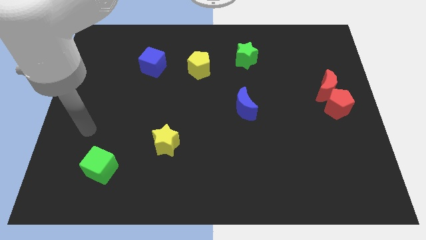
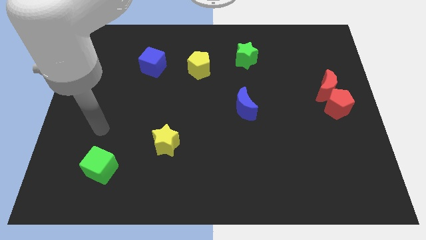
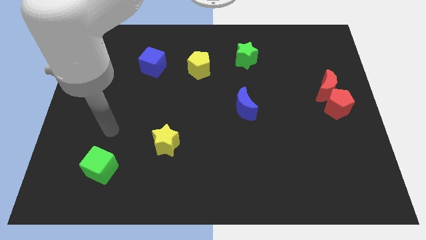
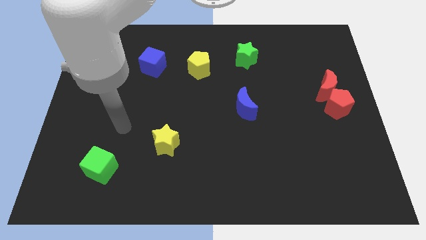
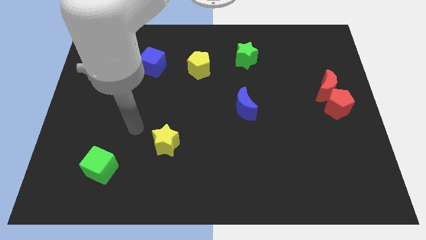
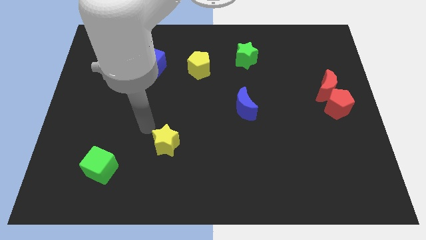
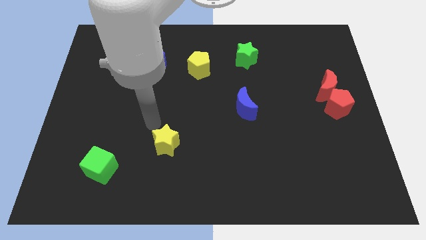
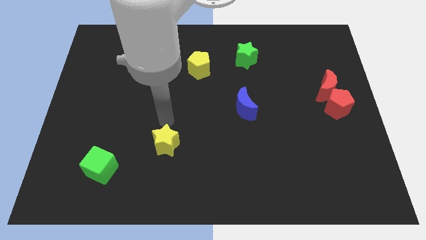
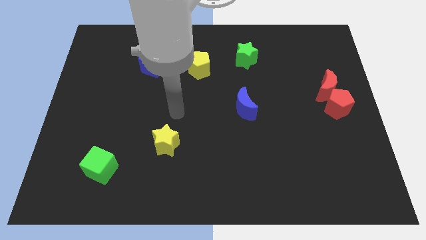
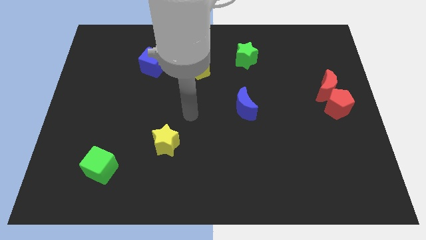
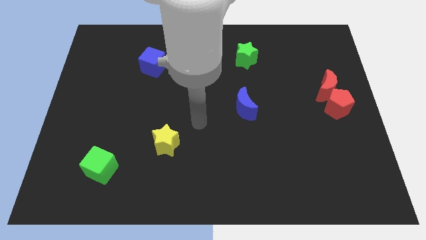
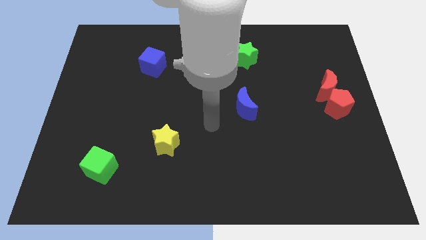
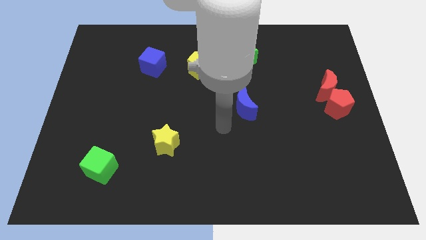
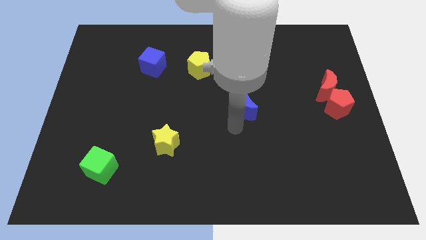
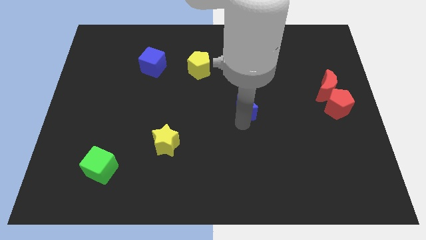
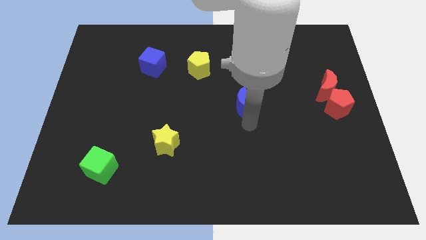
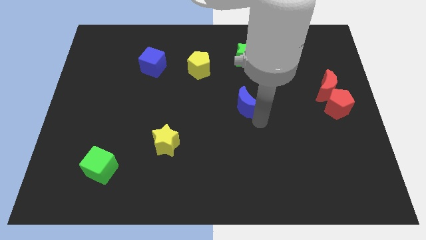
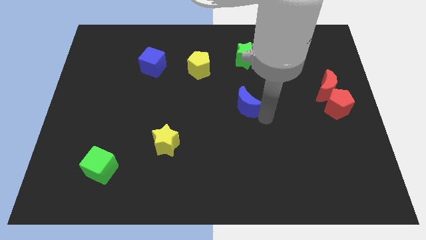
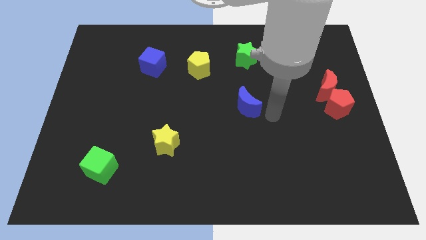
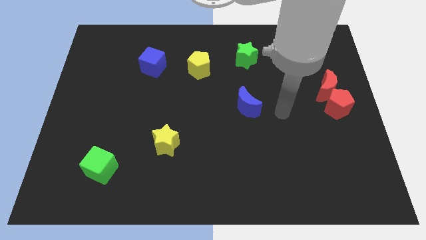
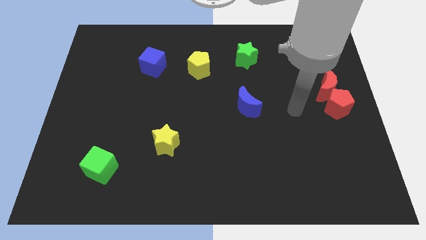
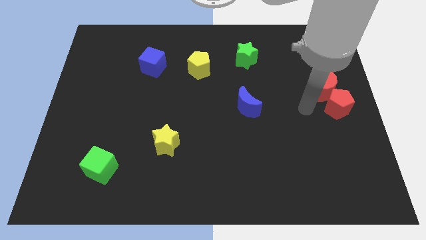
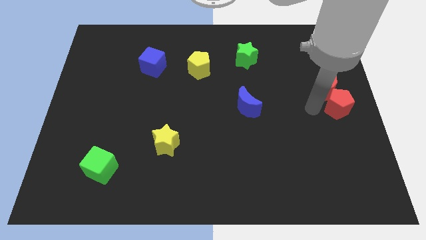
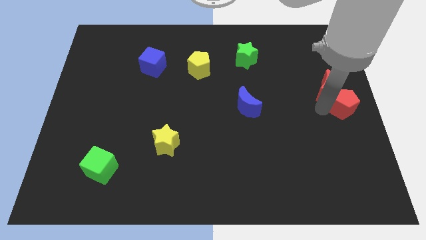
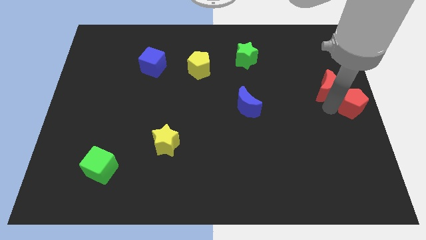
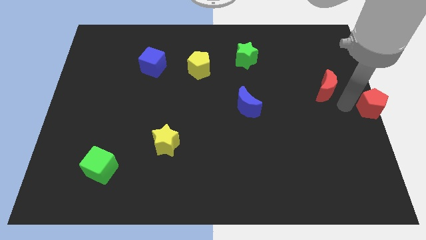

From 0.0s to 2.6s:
separate the red moon from the red pentagon

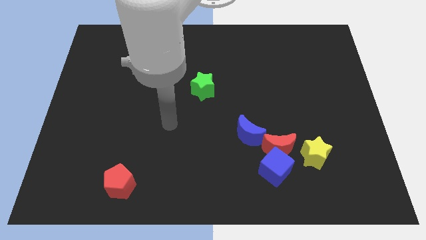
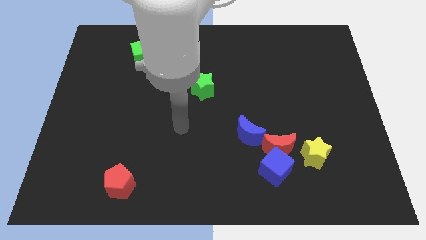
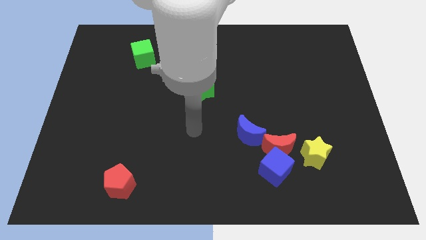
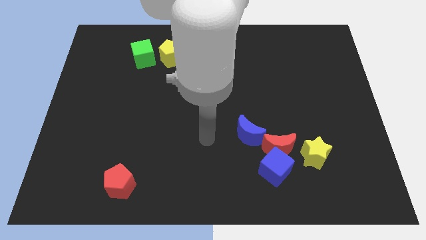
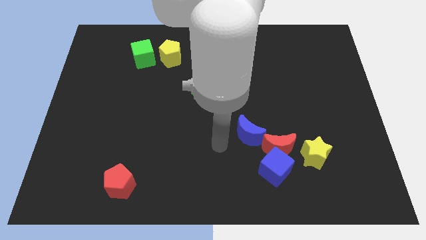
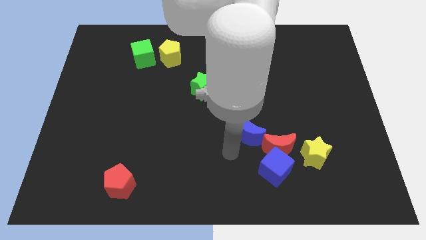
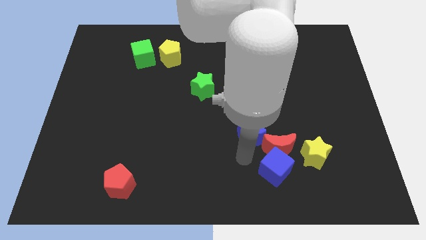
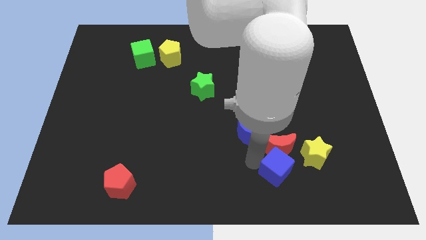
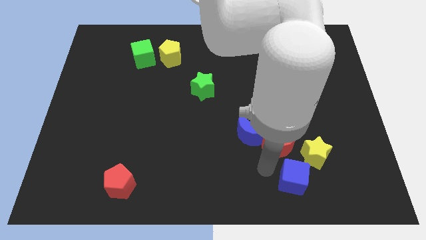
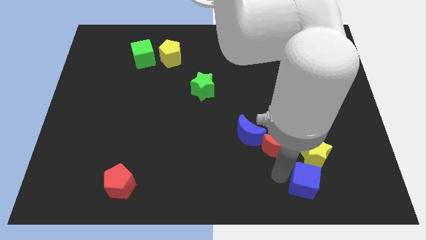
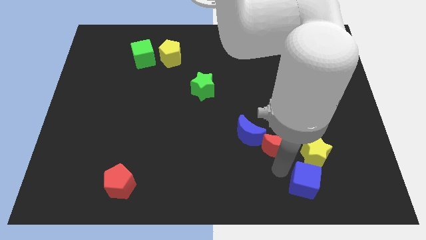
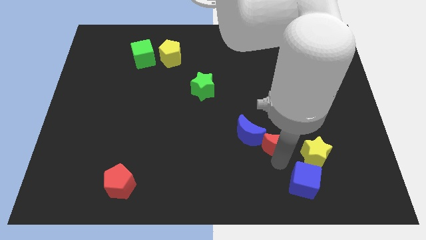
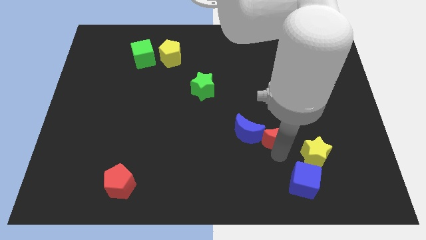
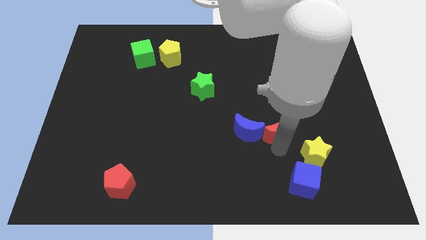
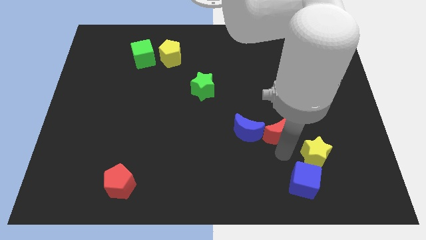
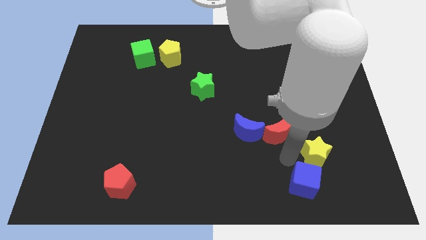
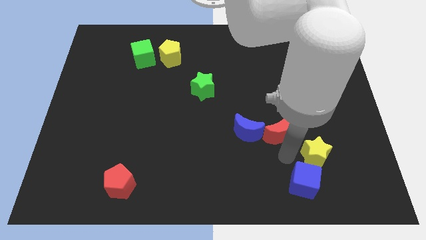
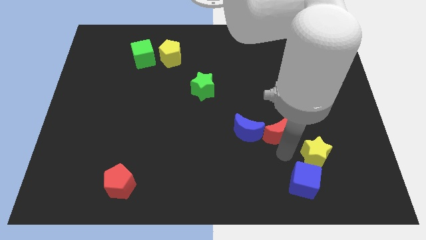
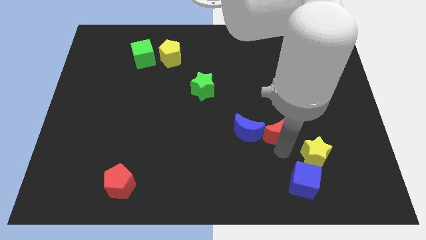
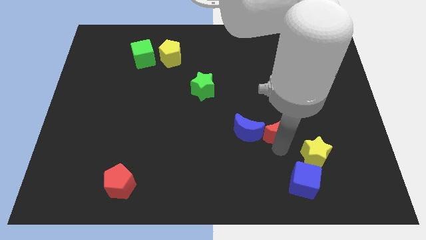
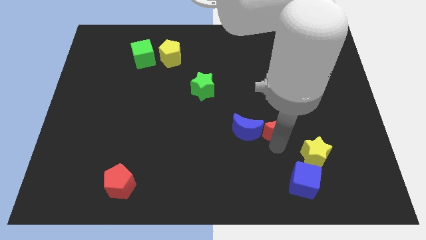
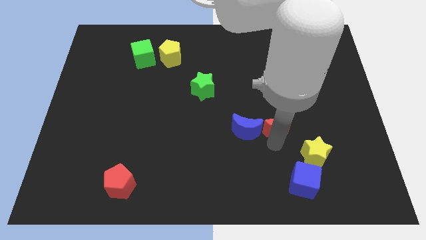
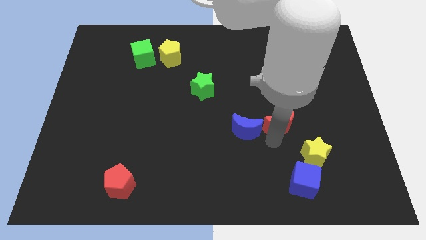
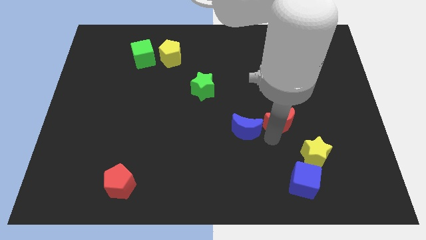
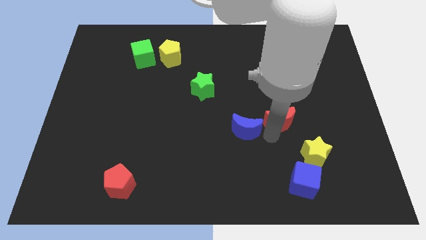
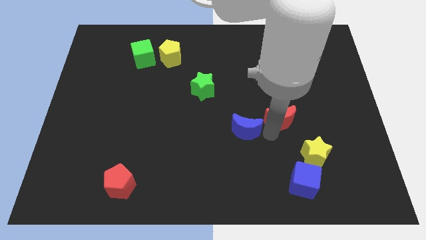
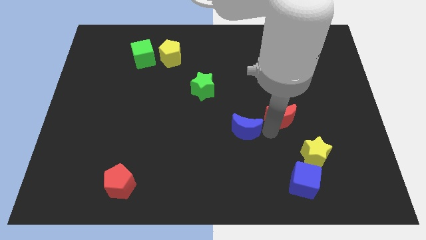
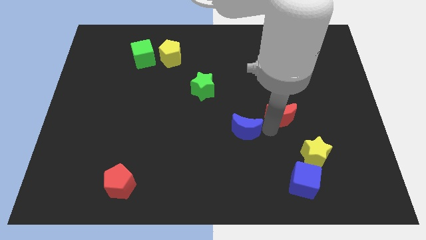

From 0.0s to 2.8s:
move the red moon away from the blue cube, blue moon, and yellow star

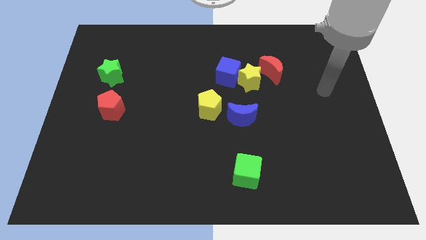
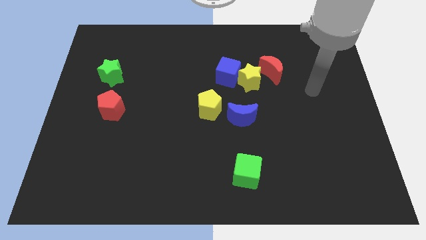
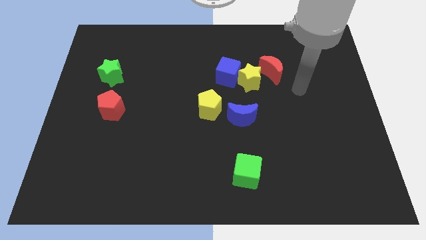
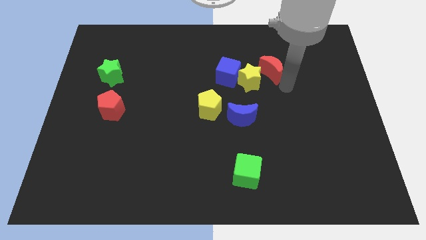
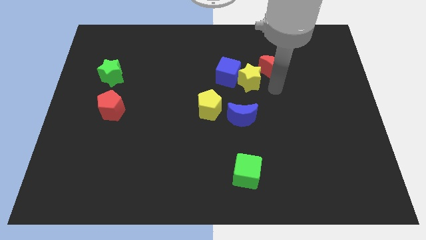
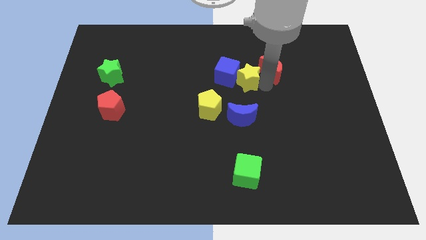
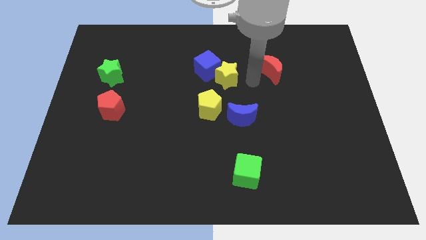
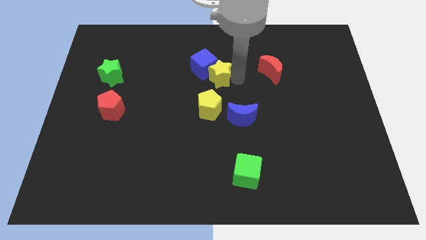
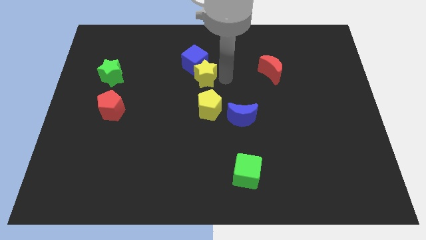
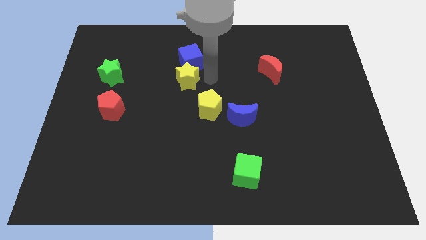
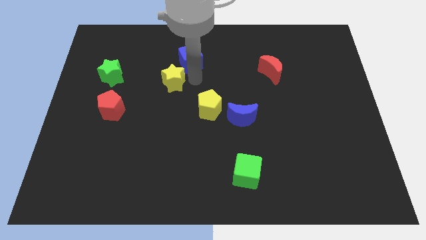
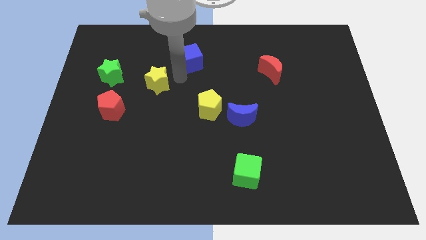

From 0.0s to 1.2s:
pull the blue cube apart from the yellow star

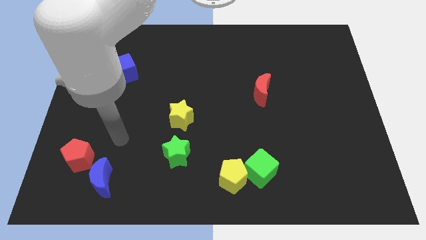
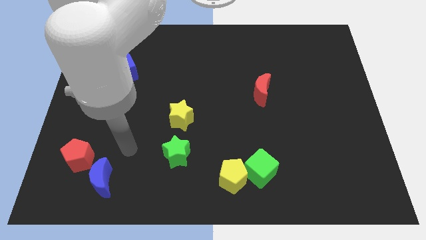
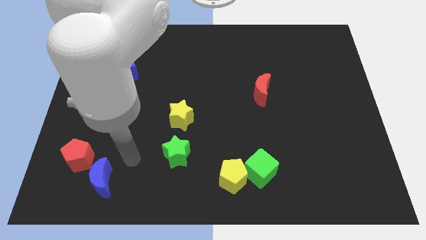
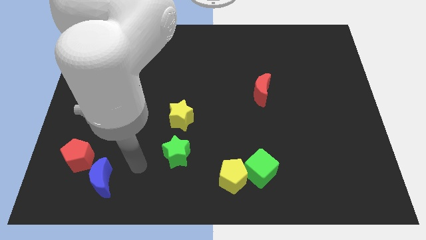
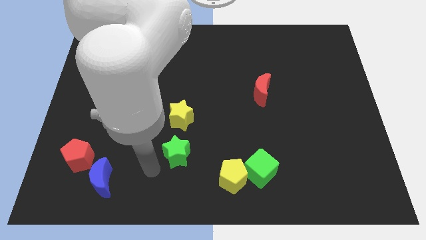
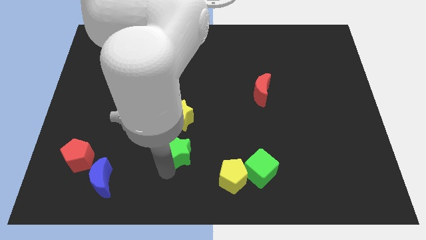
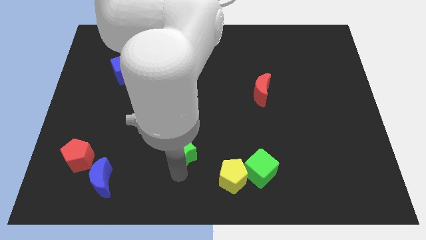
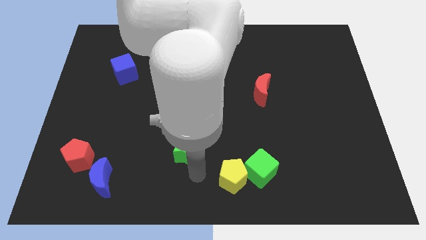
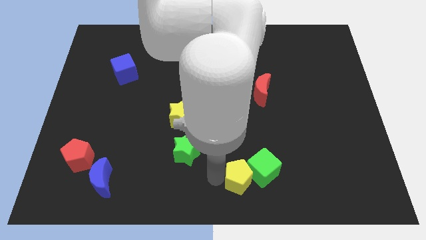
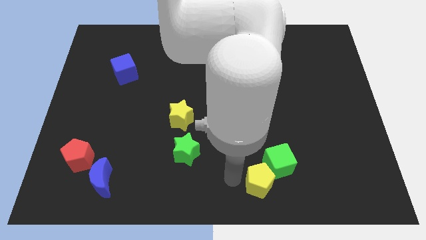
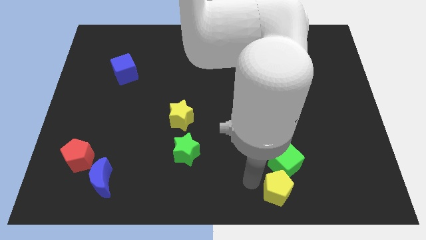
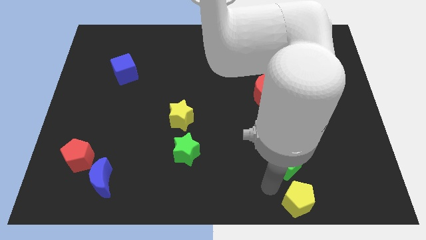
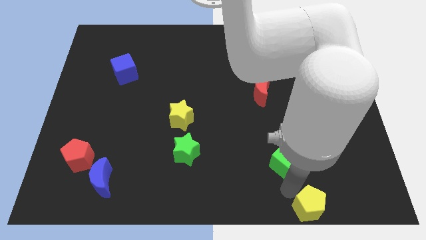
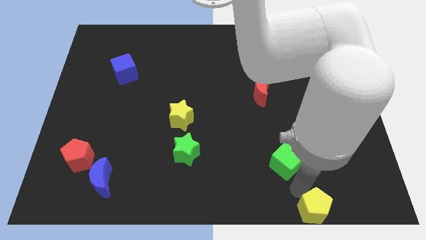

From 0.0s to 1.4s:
move the green cube away from the yellow pentagon

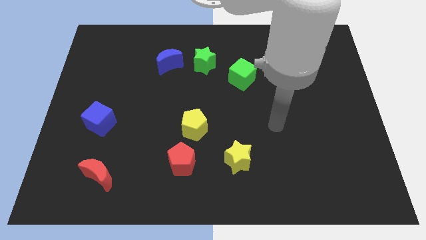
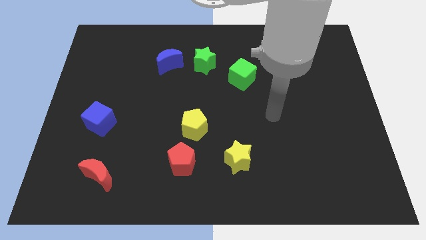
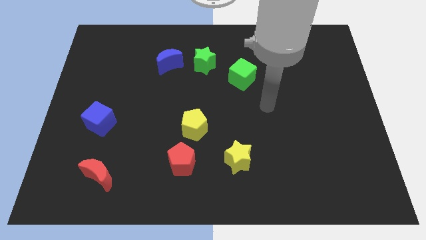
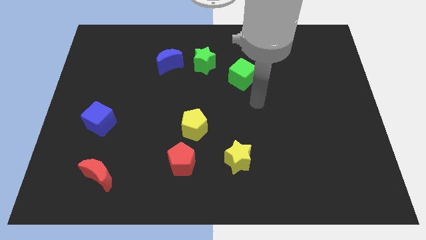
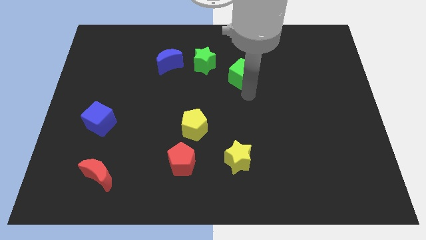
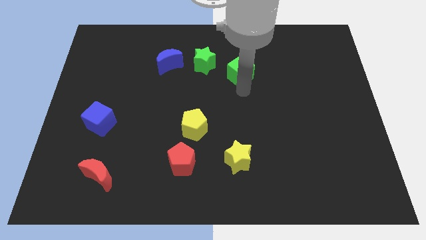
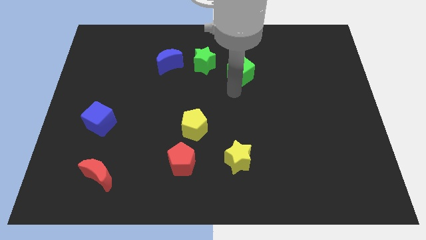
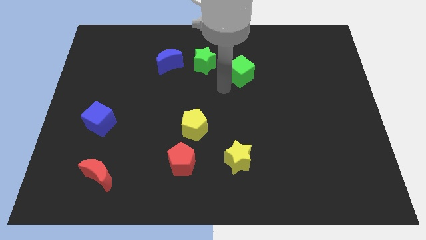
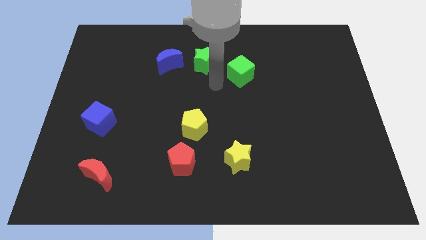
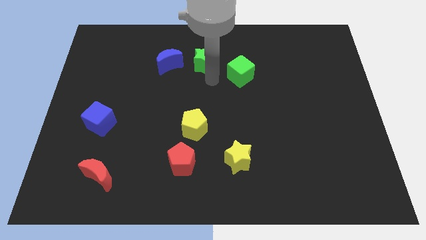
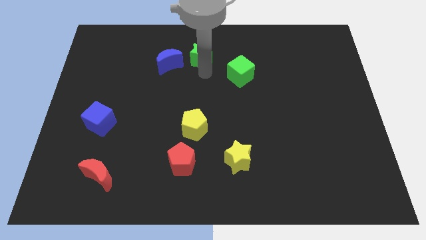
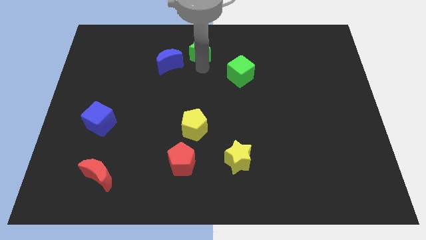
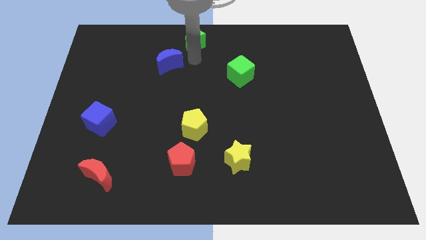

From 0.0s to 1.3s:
move the blue moon away from the green star

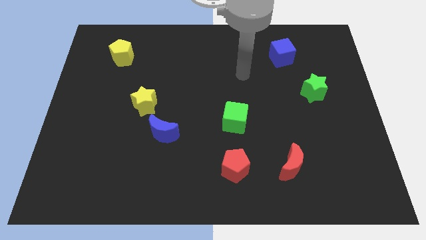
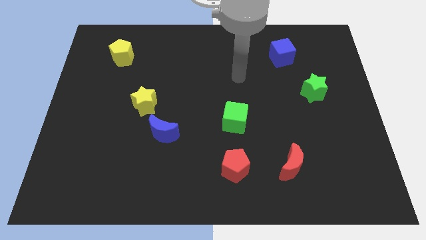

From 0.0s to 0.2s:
move the blue moon away from the yellow star
